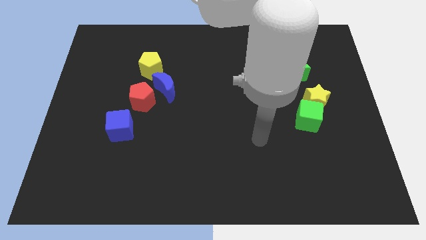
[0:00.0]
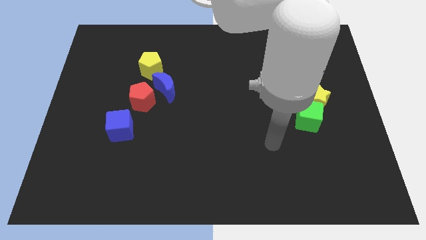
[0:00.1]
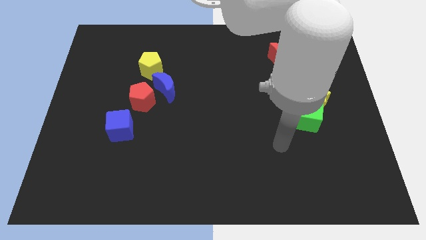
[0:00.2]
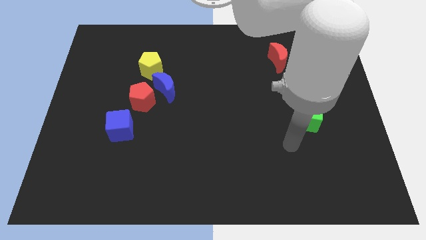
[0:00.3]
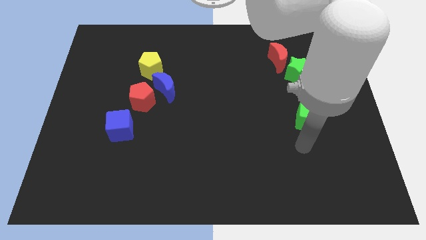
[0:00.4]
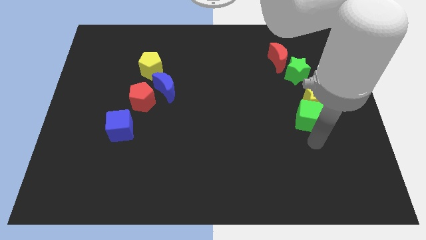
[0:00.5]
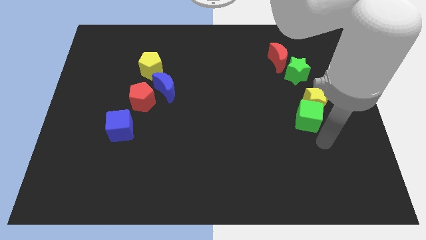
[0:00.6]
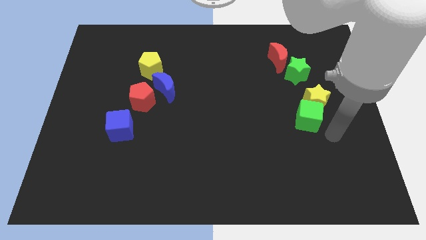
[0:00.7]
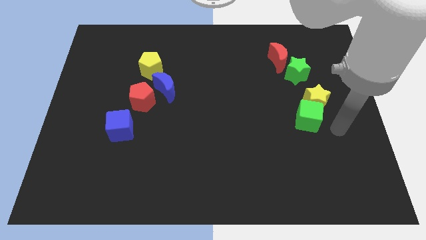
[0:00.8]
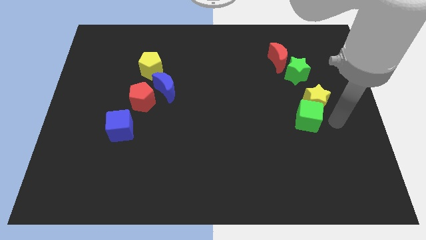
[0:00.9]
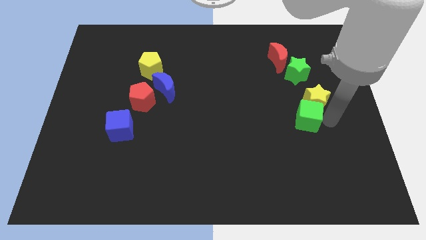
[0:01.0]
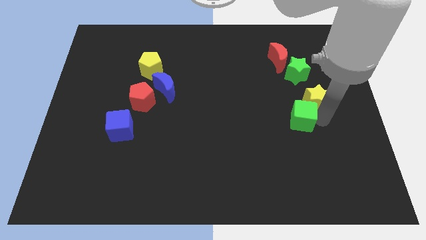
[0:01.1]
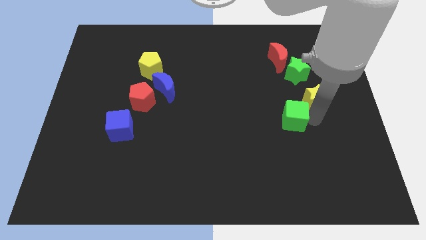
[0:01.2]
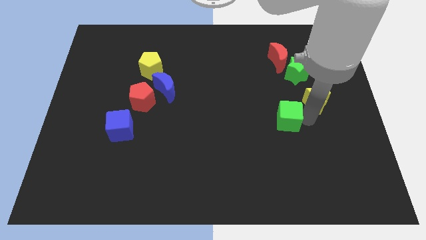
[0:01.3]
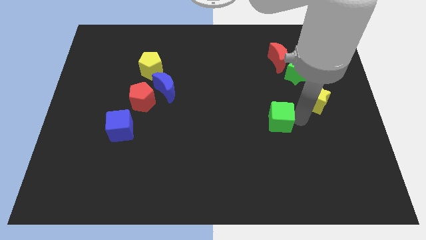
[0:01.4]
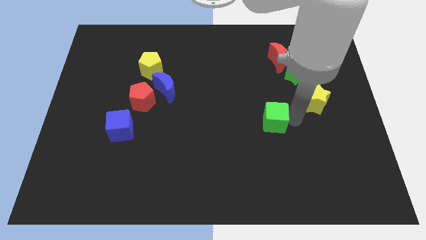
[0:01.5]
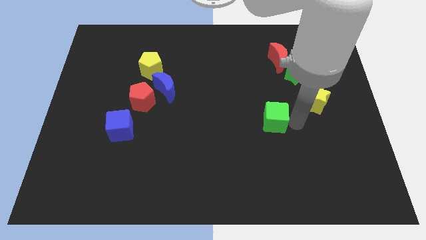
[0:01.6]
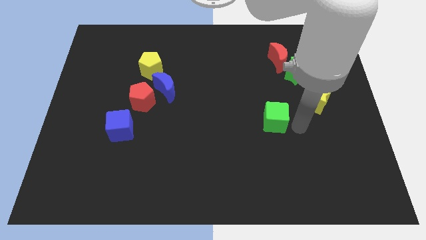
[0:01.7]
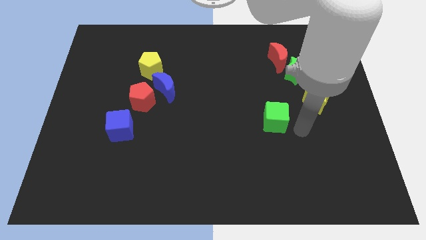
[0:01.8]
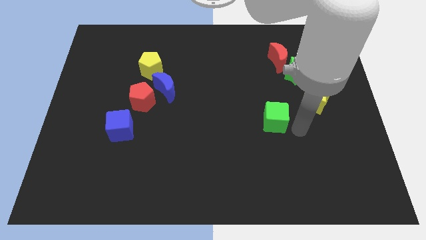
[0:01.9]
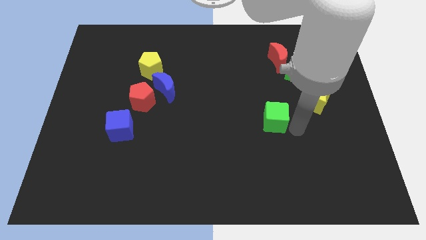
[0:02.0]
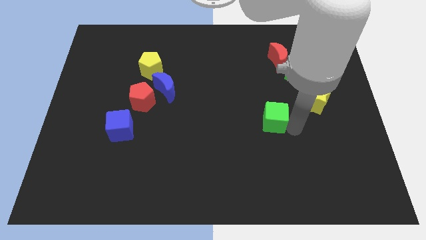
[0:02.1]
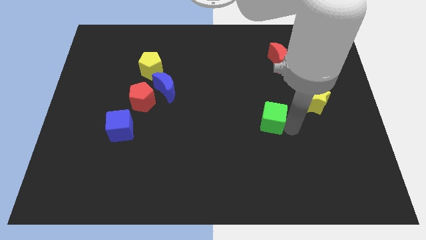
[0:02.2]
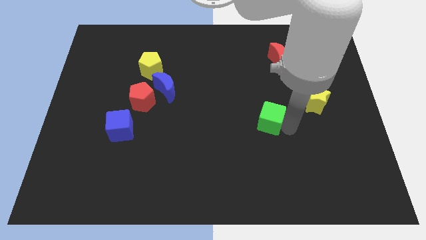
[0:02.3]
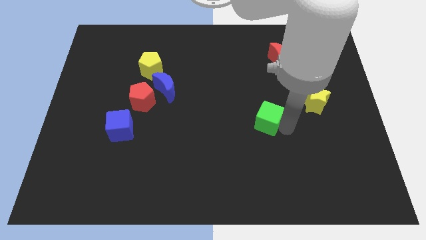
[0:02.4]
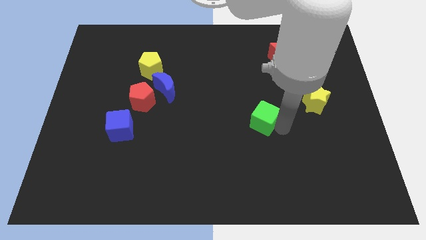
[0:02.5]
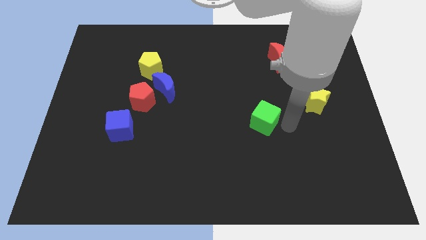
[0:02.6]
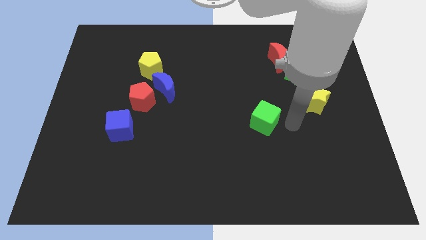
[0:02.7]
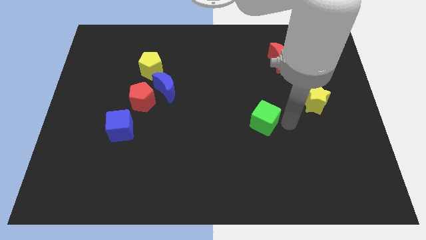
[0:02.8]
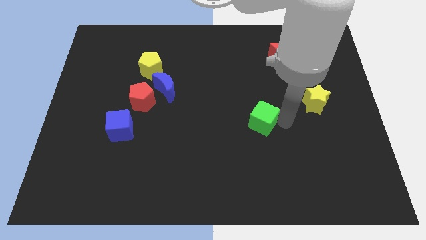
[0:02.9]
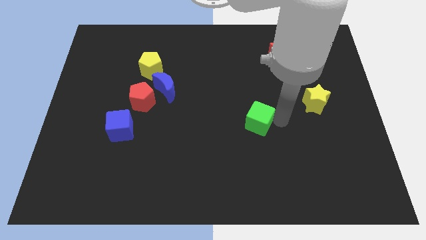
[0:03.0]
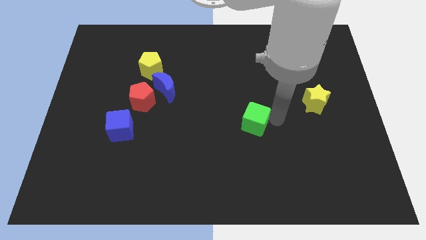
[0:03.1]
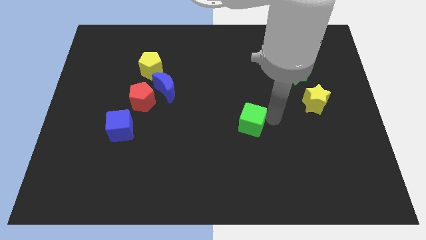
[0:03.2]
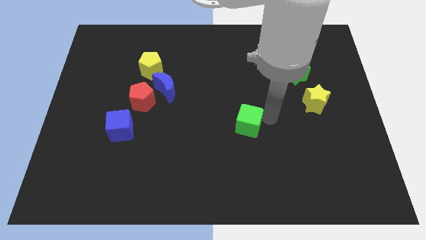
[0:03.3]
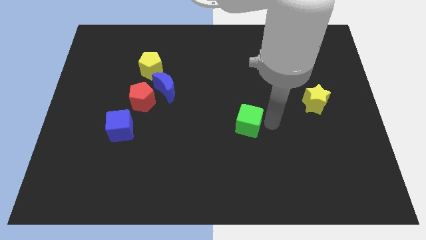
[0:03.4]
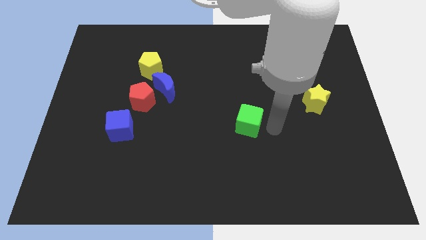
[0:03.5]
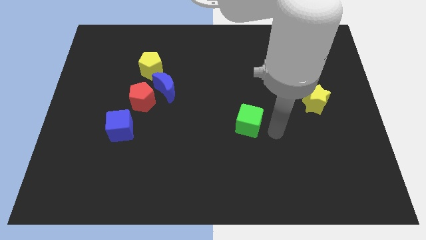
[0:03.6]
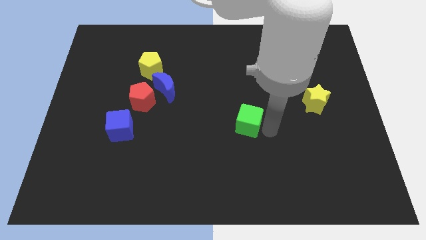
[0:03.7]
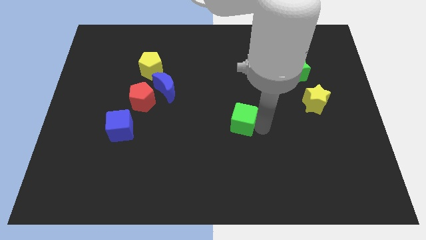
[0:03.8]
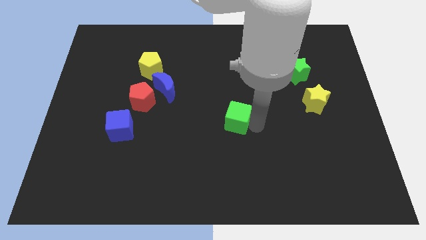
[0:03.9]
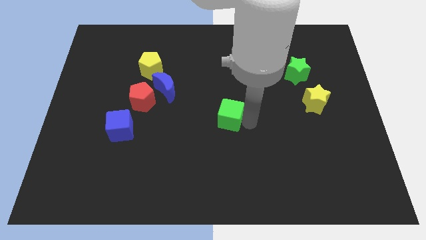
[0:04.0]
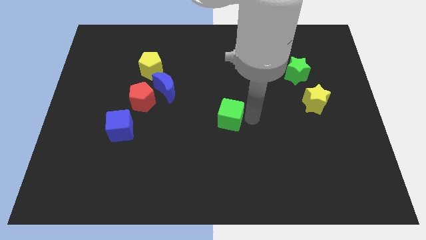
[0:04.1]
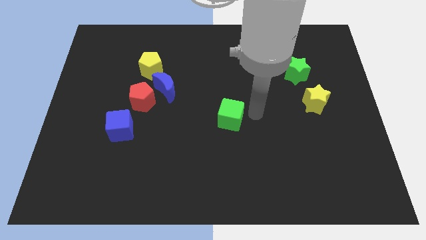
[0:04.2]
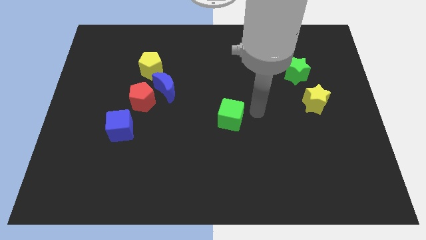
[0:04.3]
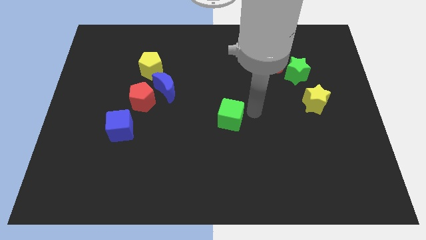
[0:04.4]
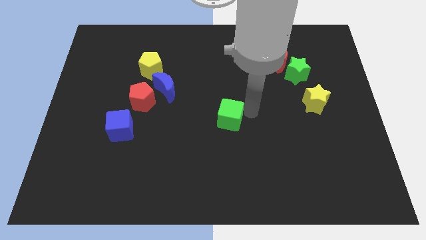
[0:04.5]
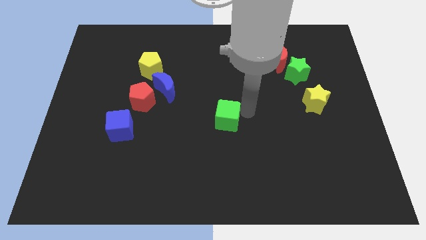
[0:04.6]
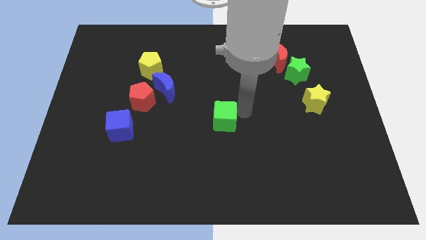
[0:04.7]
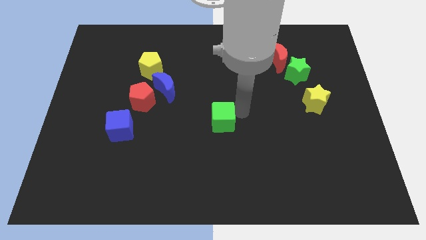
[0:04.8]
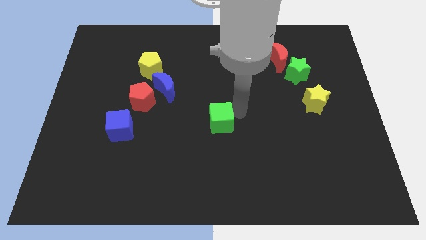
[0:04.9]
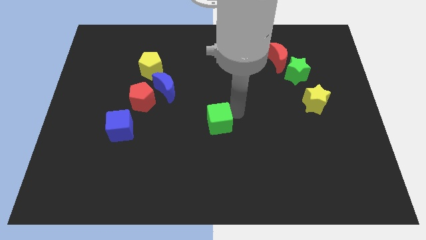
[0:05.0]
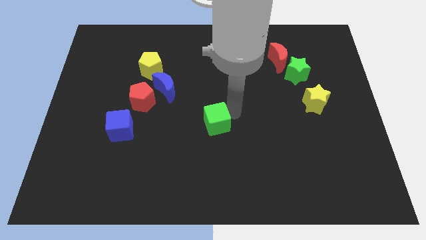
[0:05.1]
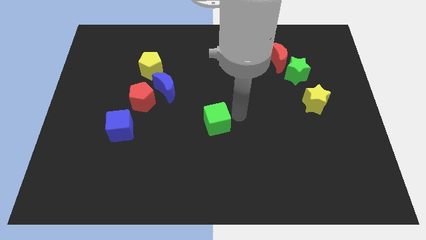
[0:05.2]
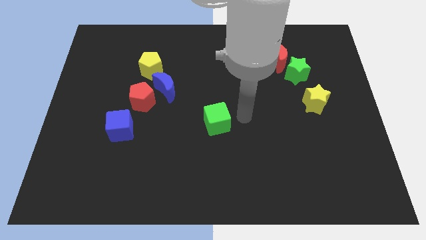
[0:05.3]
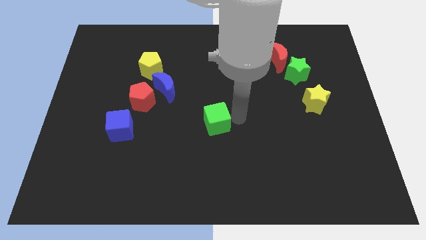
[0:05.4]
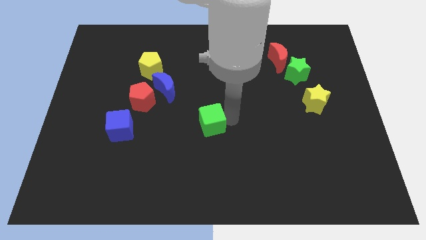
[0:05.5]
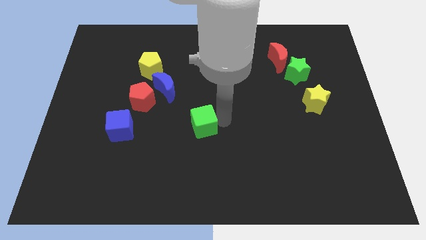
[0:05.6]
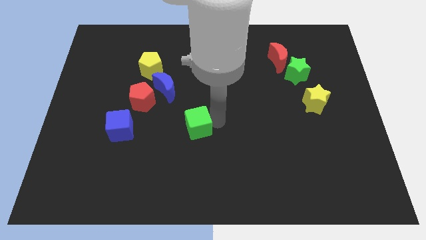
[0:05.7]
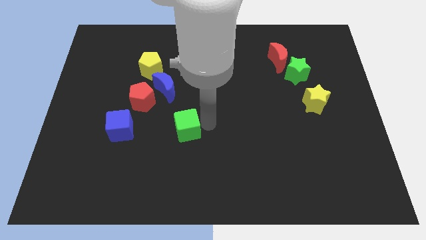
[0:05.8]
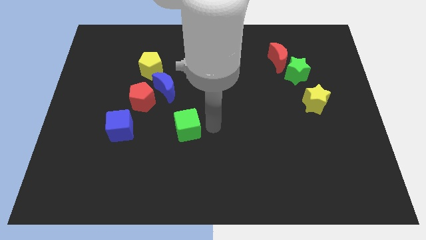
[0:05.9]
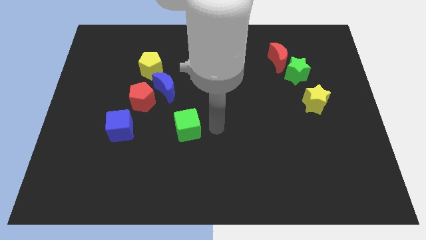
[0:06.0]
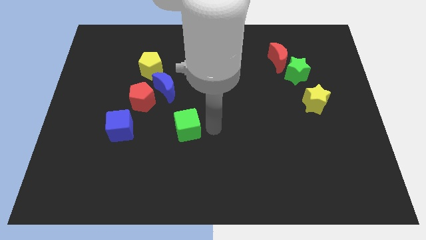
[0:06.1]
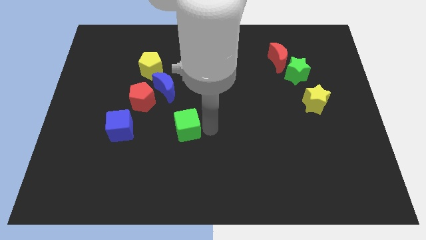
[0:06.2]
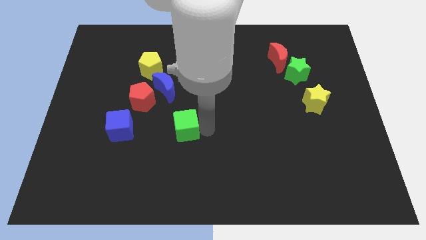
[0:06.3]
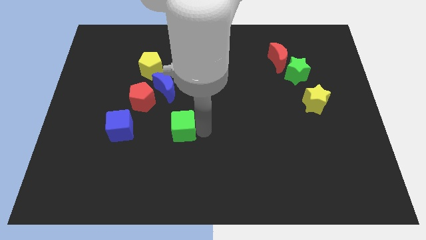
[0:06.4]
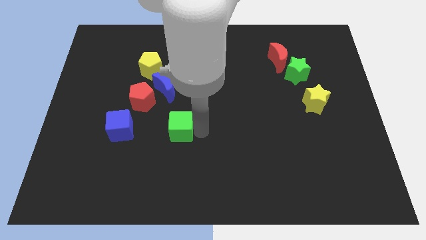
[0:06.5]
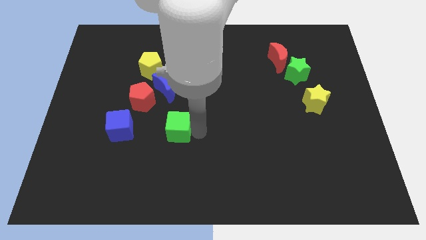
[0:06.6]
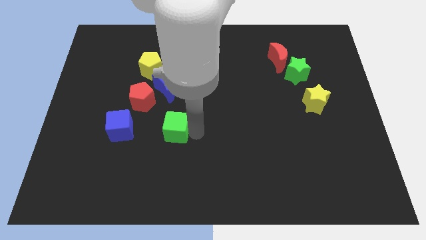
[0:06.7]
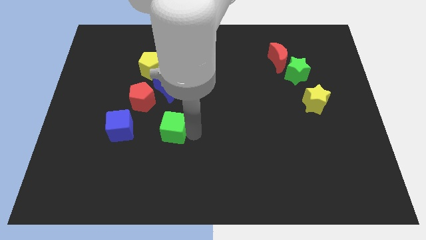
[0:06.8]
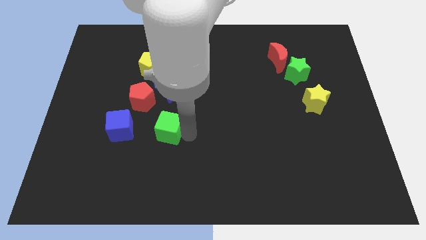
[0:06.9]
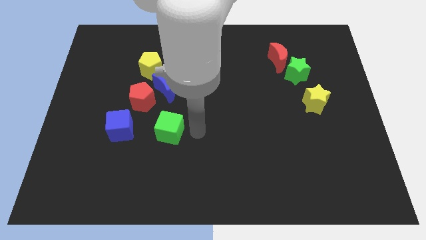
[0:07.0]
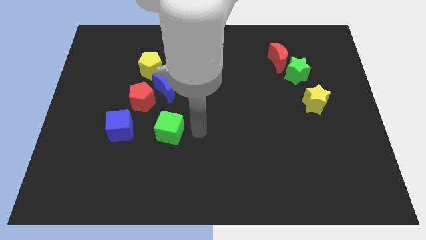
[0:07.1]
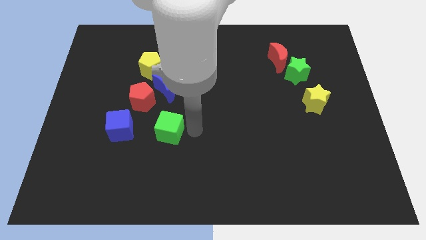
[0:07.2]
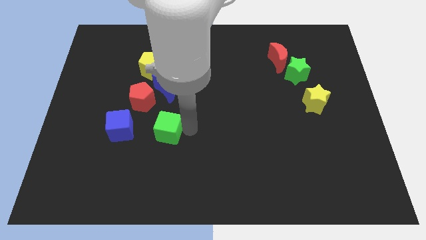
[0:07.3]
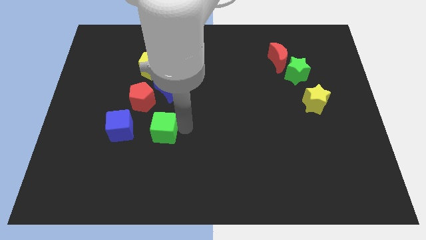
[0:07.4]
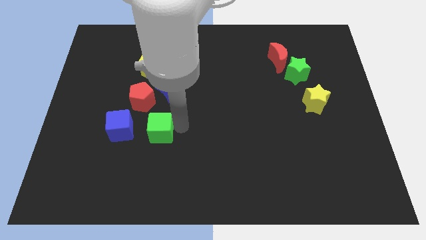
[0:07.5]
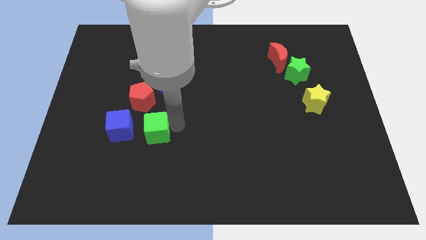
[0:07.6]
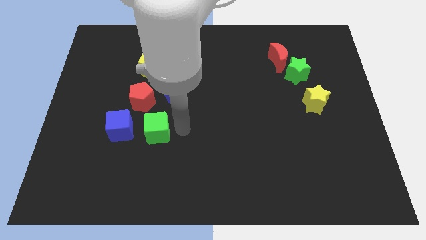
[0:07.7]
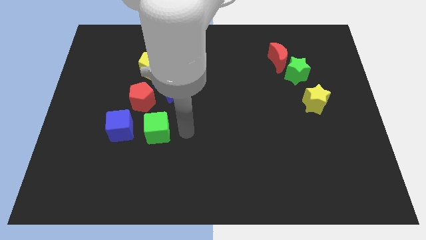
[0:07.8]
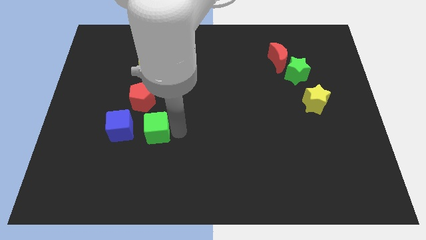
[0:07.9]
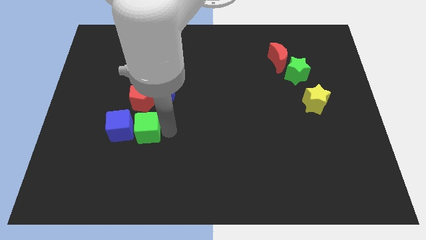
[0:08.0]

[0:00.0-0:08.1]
push the green cube to the blue cube
